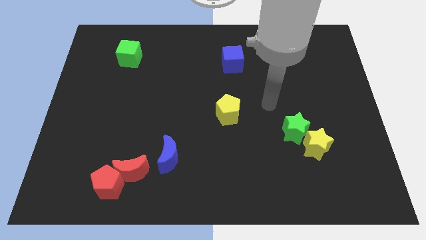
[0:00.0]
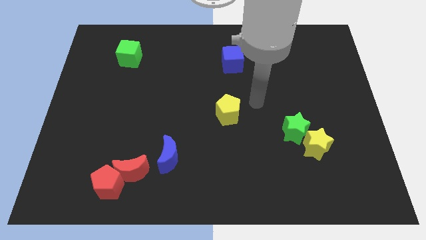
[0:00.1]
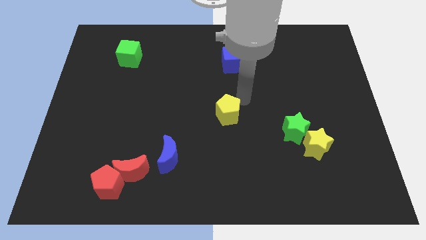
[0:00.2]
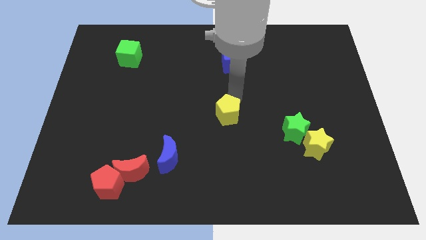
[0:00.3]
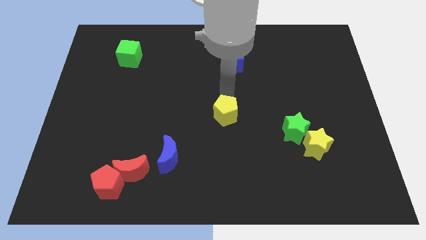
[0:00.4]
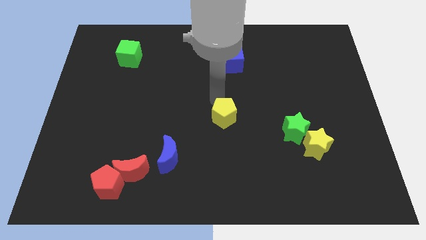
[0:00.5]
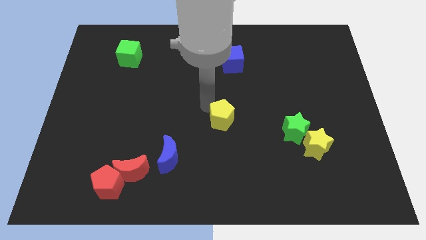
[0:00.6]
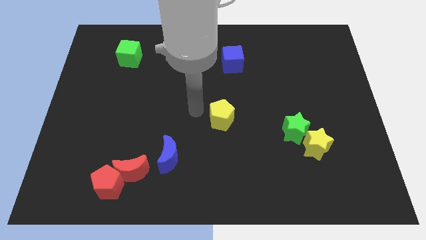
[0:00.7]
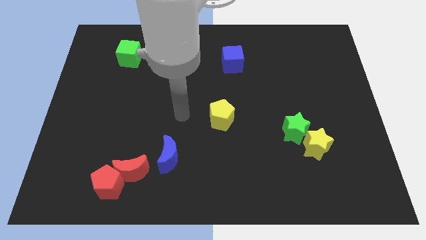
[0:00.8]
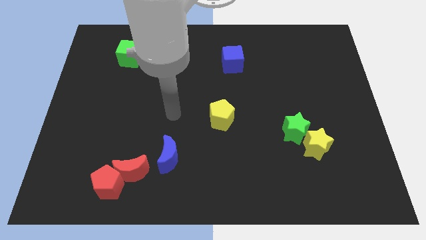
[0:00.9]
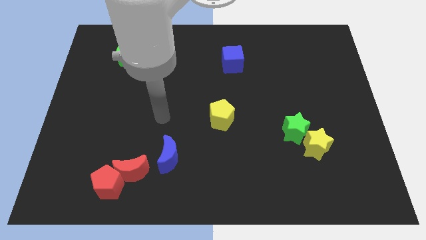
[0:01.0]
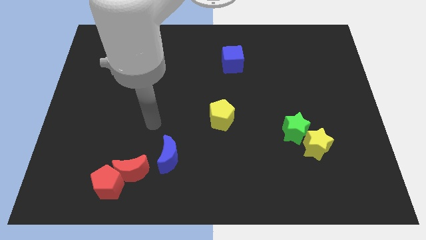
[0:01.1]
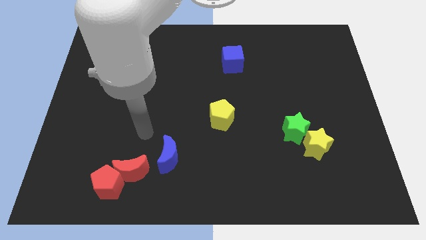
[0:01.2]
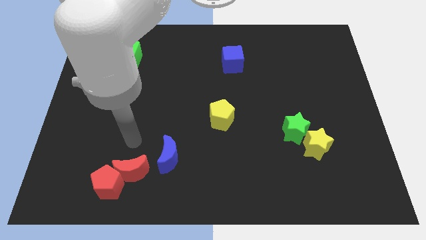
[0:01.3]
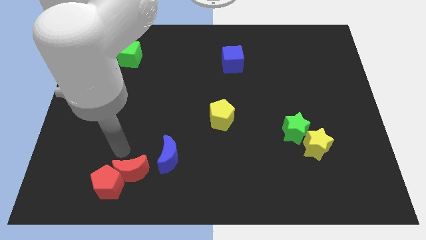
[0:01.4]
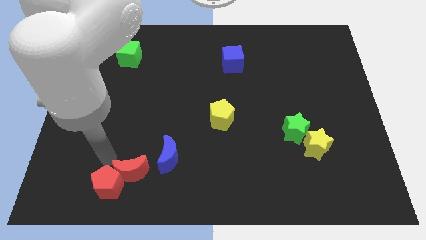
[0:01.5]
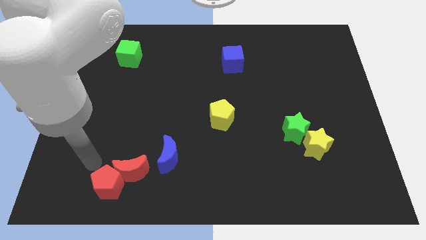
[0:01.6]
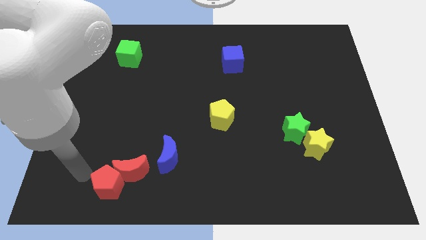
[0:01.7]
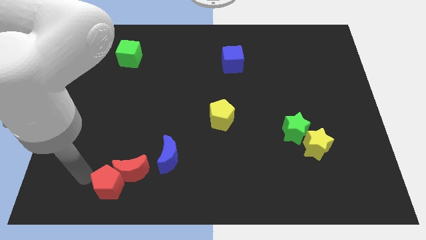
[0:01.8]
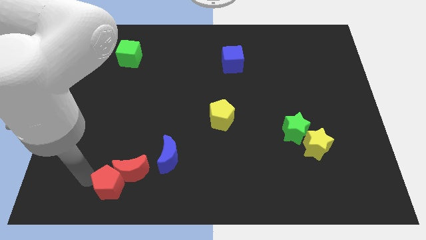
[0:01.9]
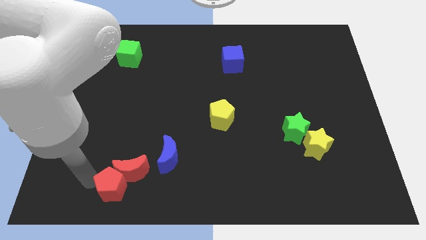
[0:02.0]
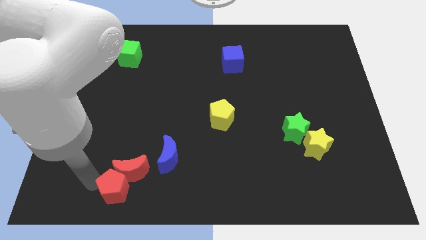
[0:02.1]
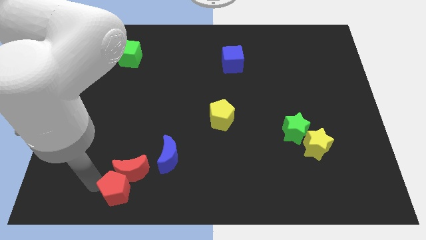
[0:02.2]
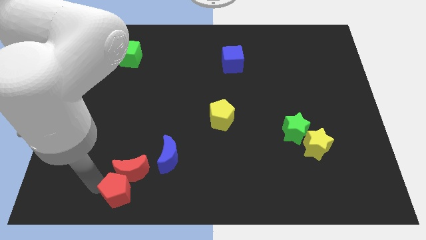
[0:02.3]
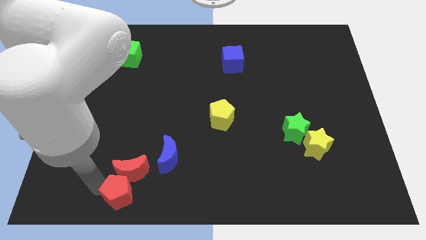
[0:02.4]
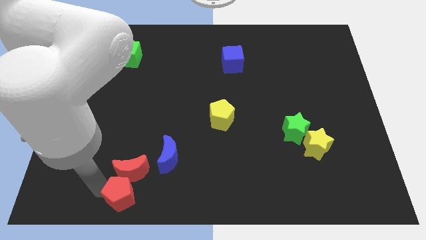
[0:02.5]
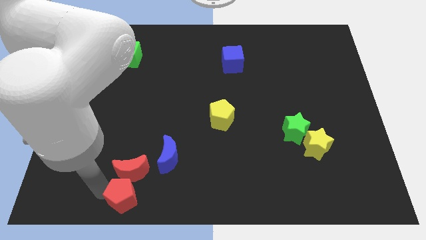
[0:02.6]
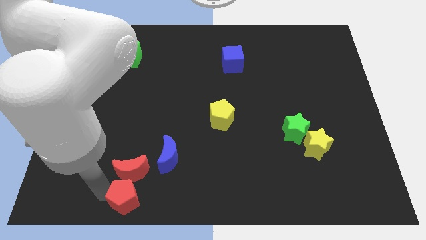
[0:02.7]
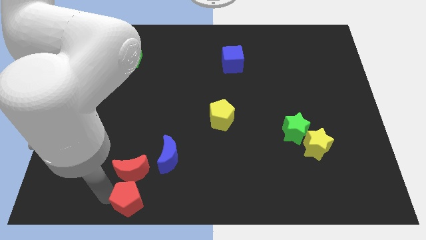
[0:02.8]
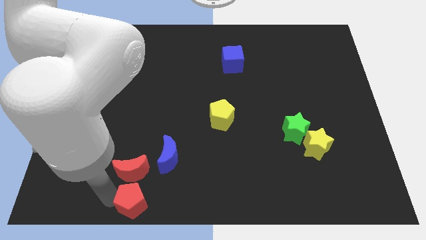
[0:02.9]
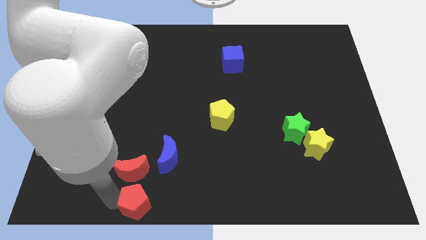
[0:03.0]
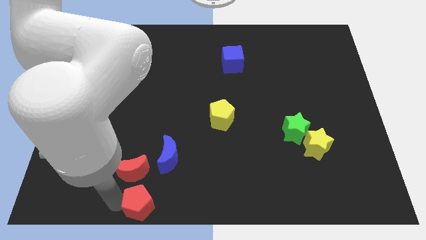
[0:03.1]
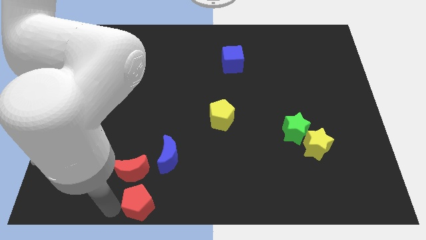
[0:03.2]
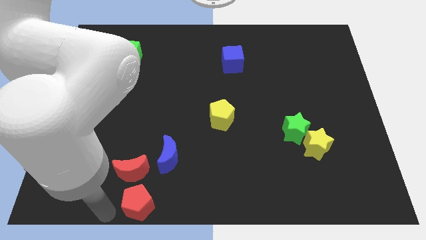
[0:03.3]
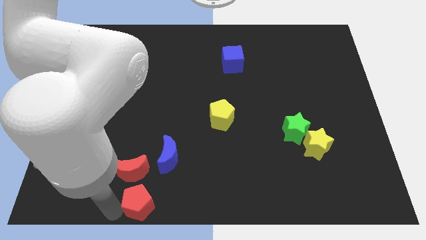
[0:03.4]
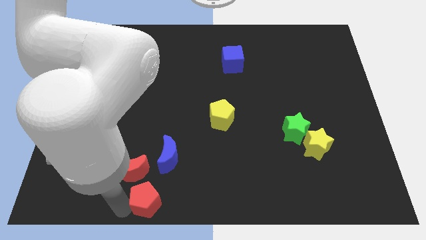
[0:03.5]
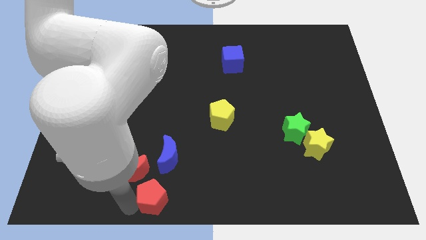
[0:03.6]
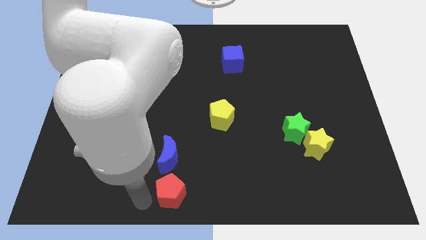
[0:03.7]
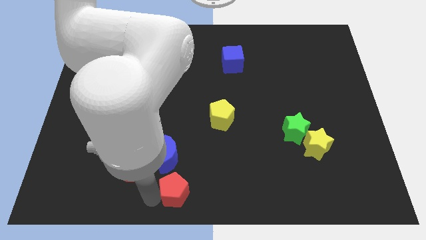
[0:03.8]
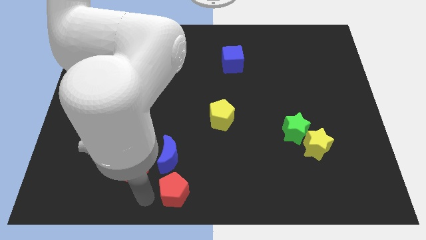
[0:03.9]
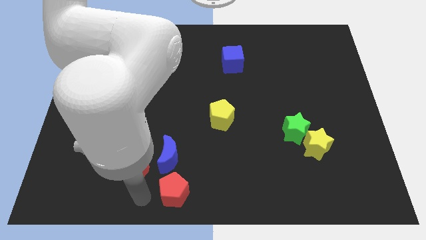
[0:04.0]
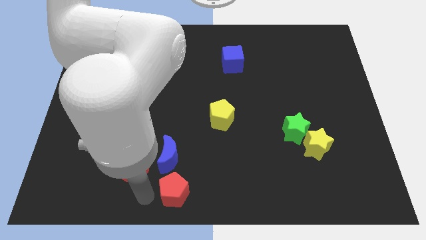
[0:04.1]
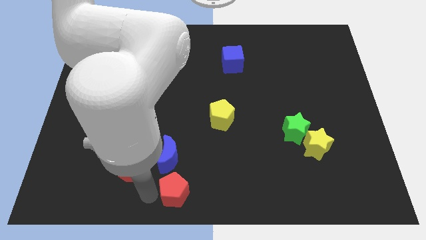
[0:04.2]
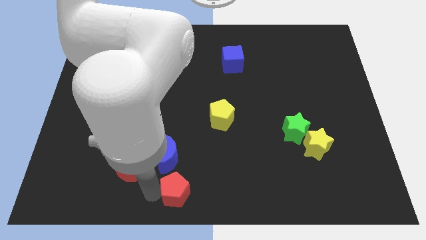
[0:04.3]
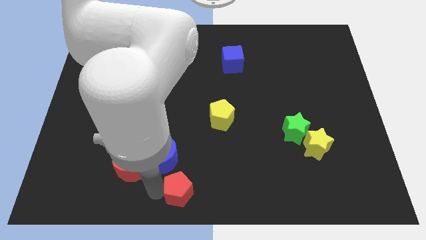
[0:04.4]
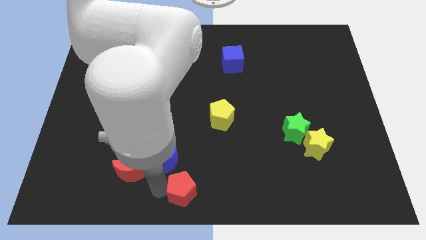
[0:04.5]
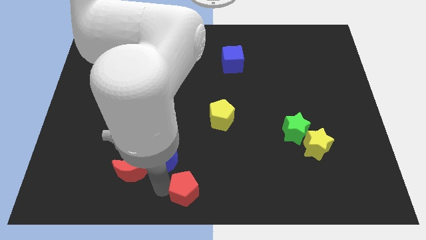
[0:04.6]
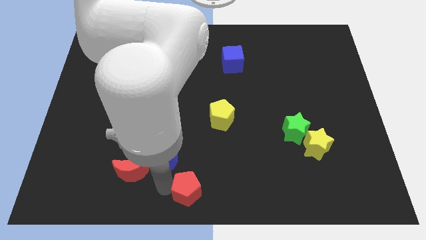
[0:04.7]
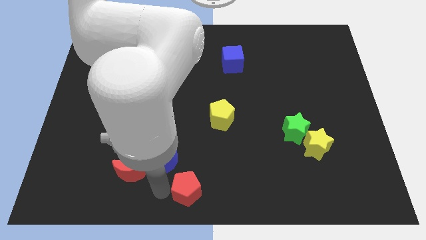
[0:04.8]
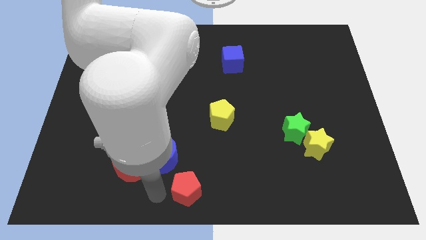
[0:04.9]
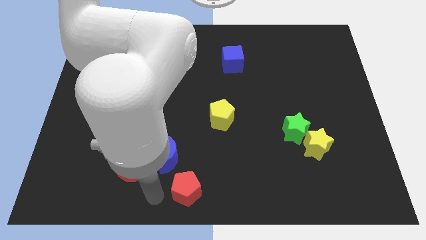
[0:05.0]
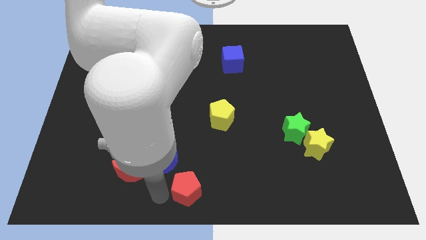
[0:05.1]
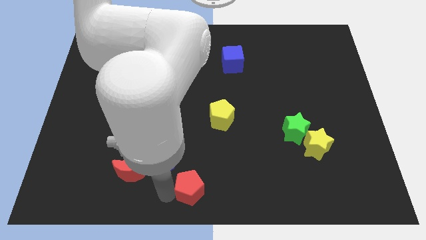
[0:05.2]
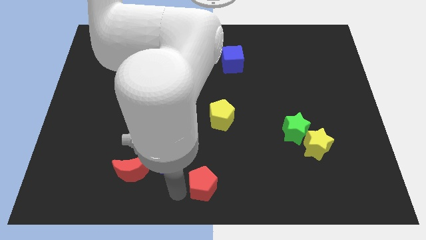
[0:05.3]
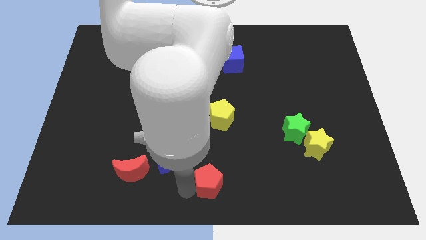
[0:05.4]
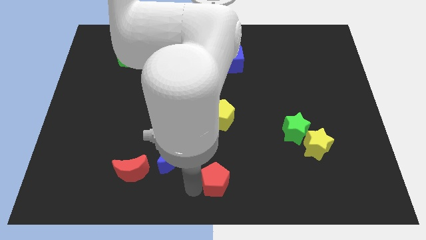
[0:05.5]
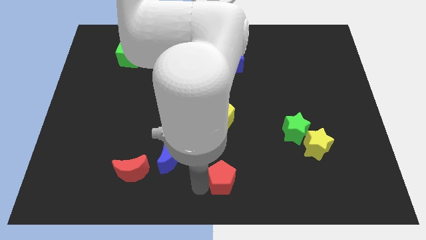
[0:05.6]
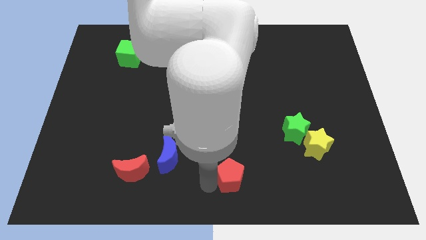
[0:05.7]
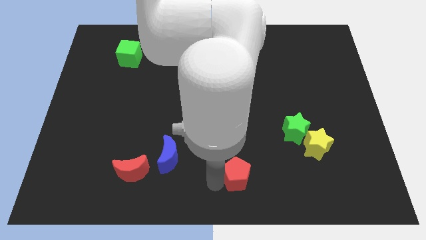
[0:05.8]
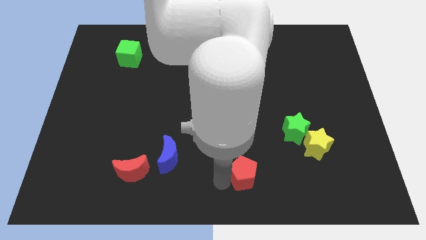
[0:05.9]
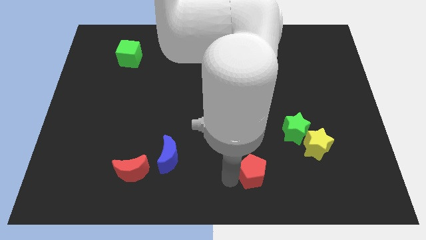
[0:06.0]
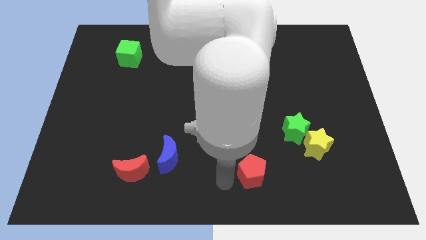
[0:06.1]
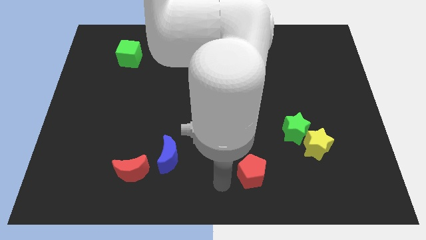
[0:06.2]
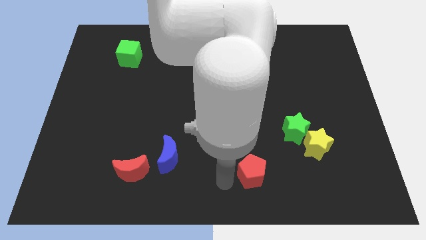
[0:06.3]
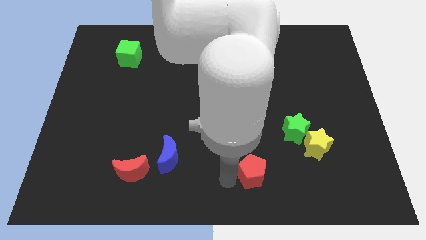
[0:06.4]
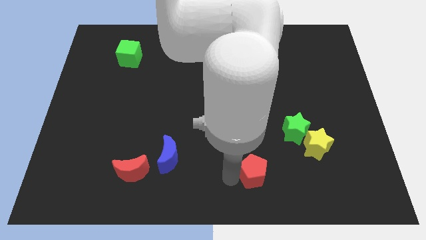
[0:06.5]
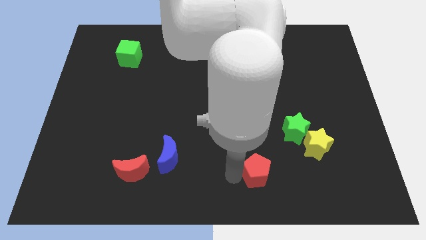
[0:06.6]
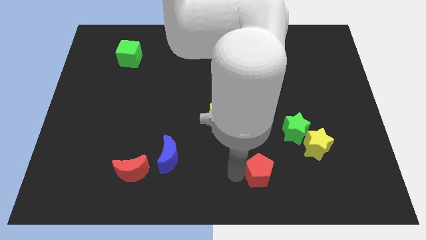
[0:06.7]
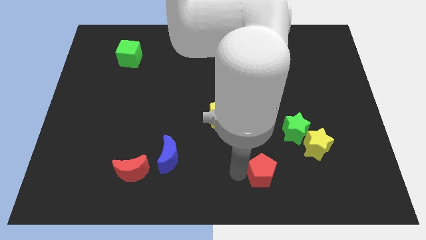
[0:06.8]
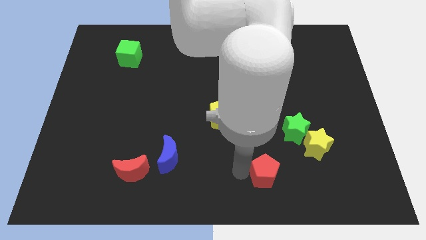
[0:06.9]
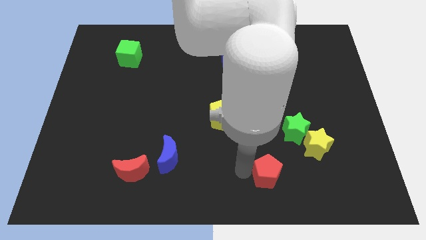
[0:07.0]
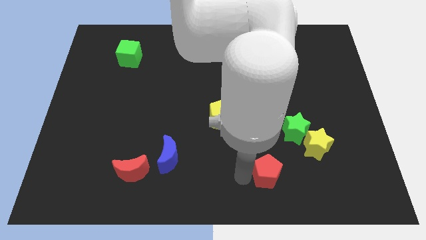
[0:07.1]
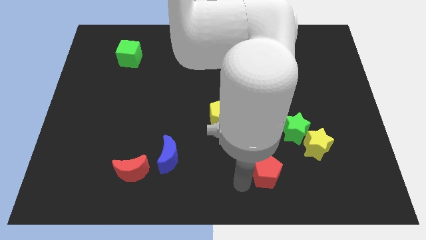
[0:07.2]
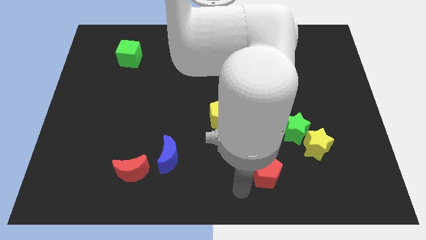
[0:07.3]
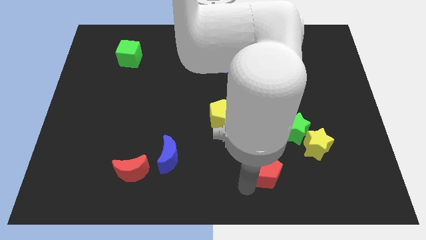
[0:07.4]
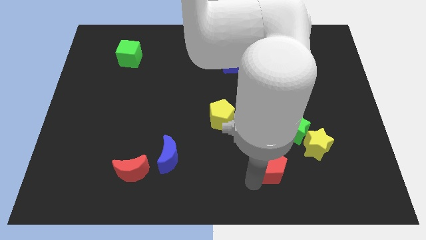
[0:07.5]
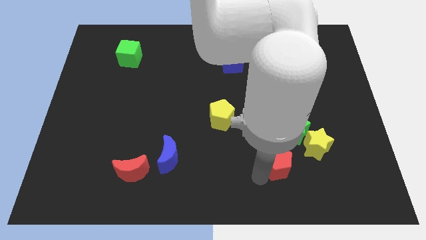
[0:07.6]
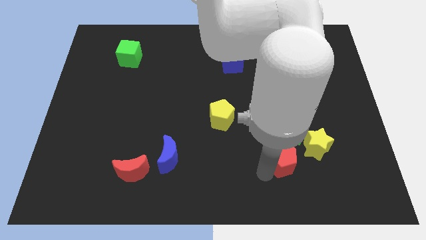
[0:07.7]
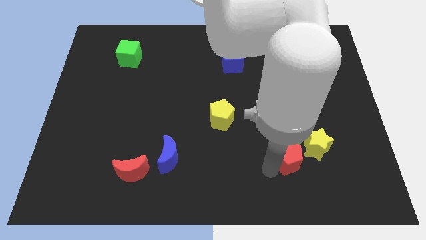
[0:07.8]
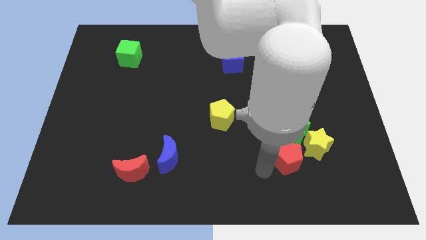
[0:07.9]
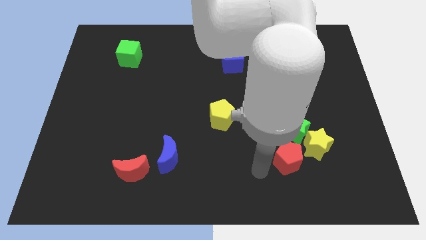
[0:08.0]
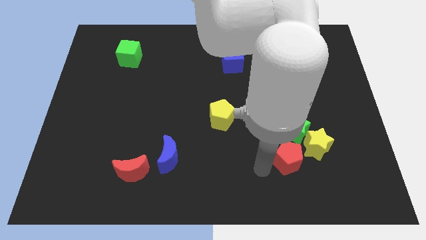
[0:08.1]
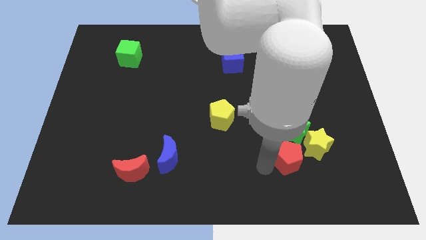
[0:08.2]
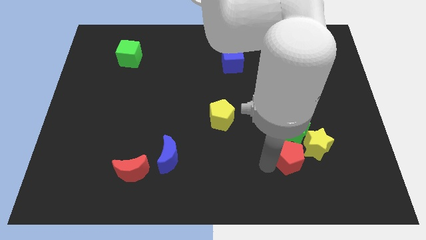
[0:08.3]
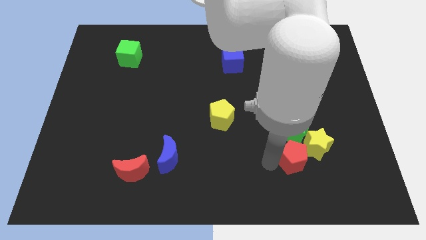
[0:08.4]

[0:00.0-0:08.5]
put the red pentagon towards the yellow star
